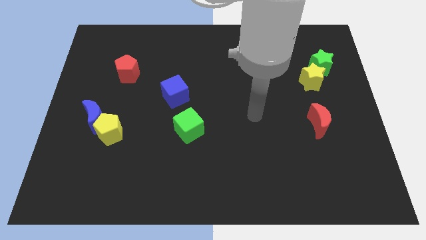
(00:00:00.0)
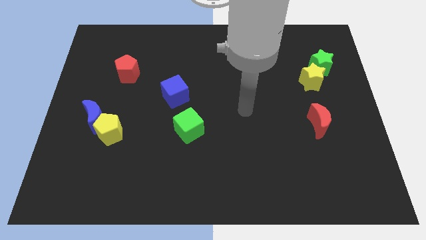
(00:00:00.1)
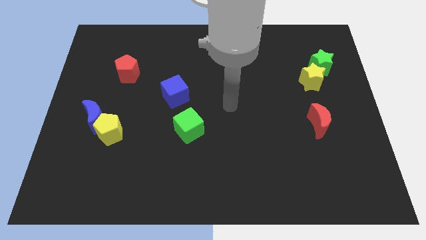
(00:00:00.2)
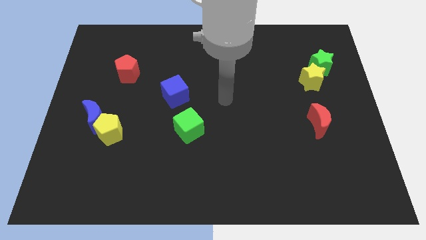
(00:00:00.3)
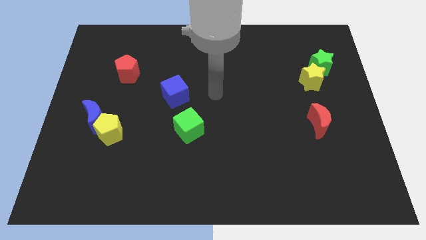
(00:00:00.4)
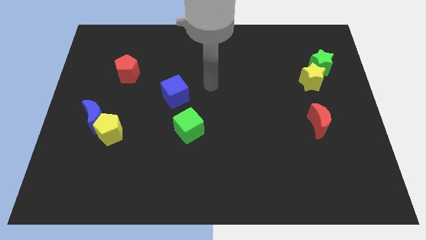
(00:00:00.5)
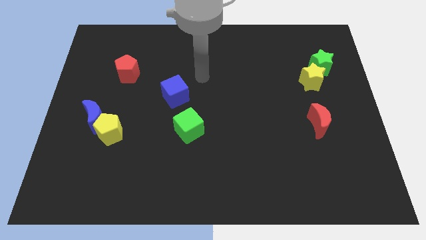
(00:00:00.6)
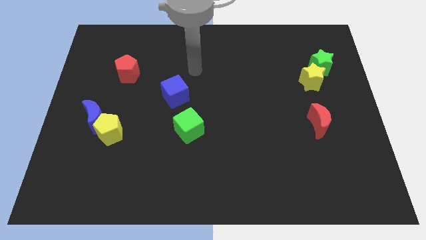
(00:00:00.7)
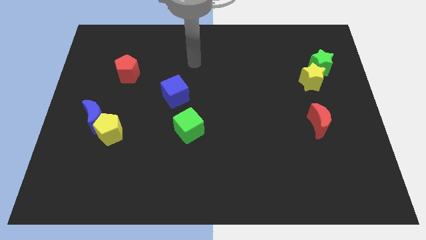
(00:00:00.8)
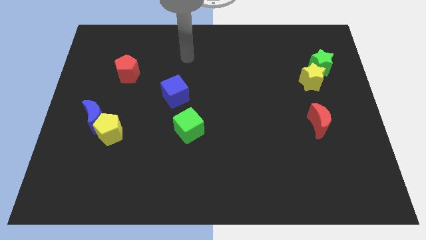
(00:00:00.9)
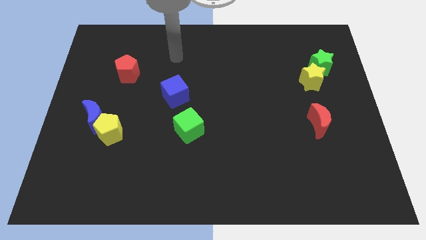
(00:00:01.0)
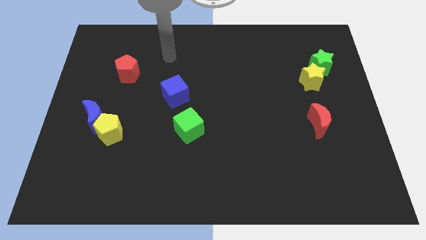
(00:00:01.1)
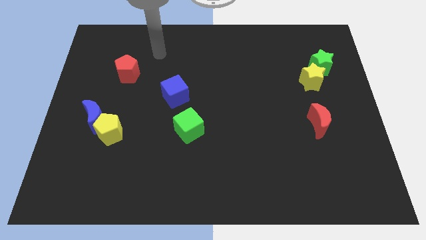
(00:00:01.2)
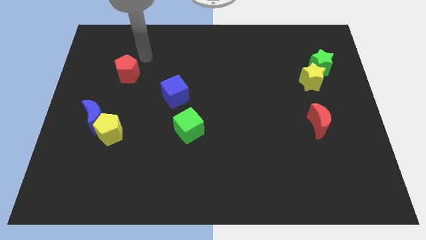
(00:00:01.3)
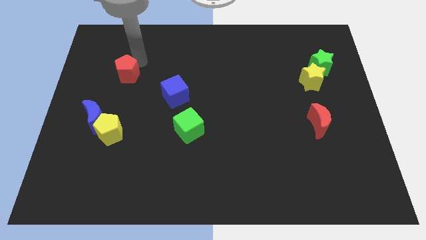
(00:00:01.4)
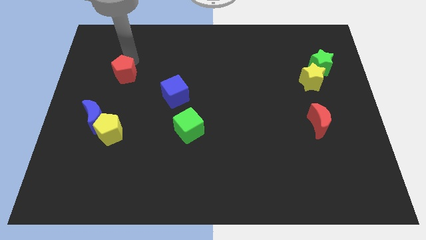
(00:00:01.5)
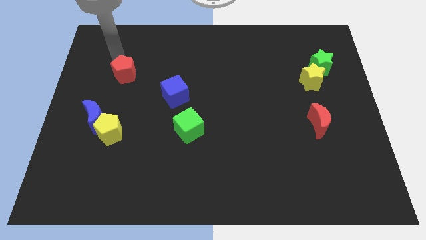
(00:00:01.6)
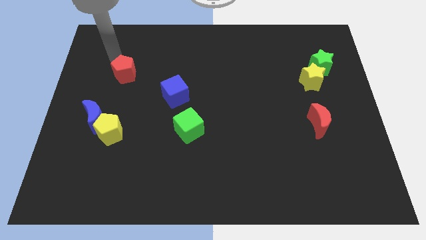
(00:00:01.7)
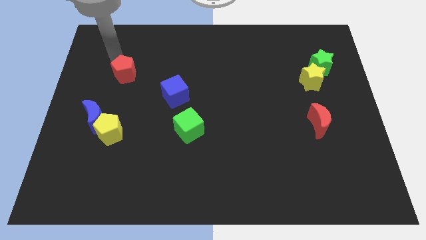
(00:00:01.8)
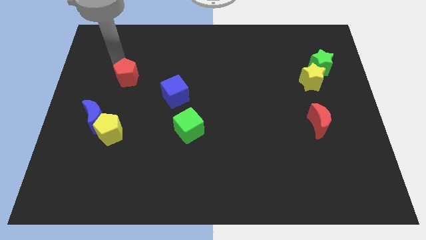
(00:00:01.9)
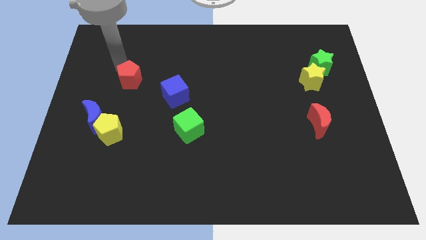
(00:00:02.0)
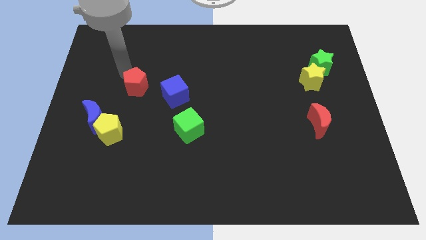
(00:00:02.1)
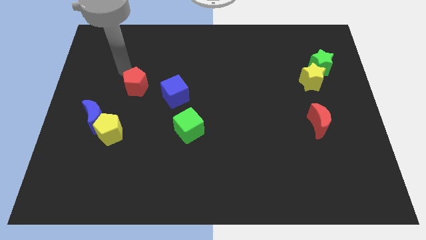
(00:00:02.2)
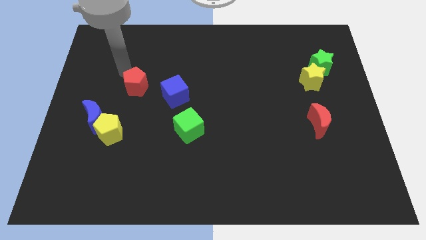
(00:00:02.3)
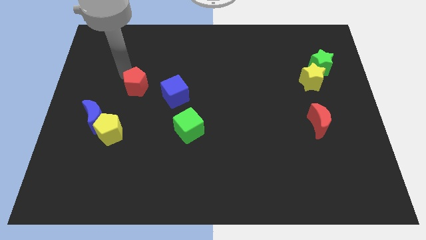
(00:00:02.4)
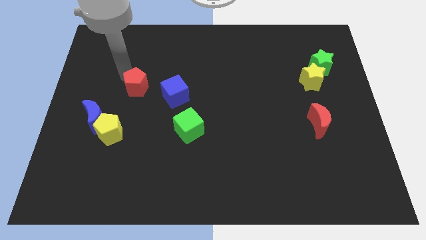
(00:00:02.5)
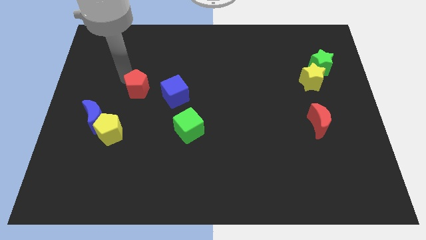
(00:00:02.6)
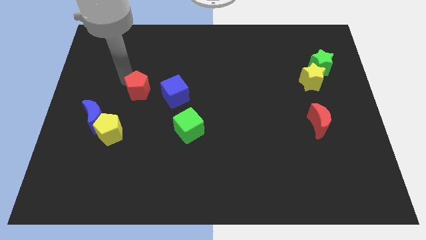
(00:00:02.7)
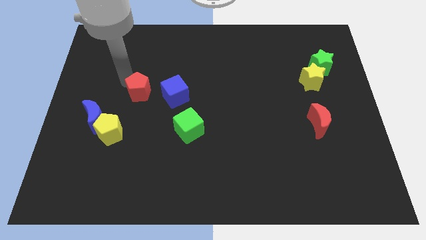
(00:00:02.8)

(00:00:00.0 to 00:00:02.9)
push the red pentagon a little diagonally down and to the right

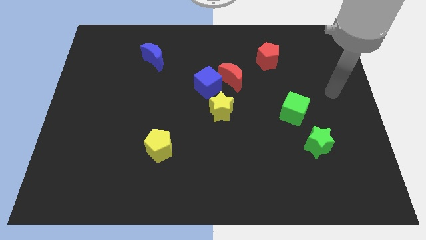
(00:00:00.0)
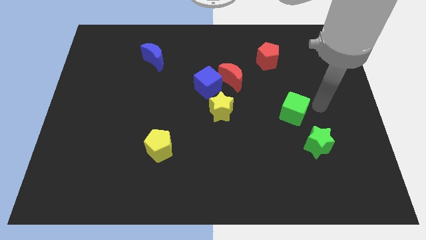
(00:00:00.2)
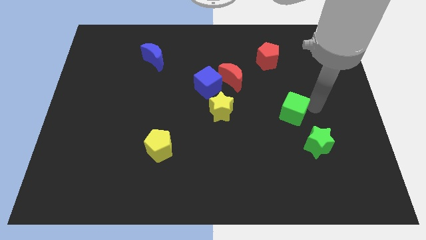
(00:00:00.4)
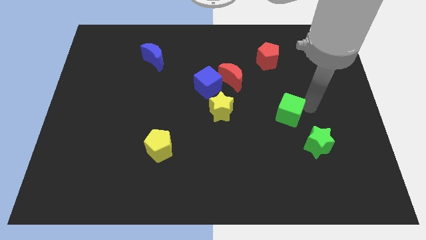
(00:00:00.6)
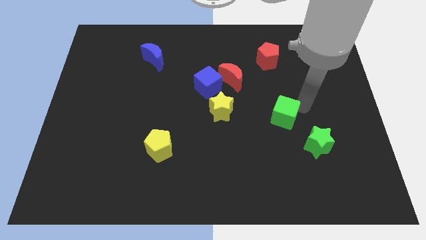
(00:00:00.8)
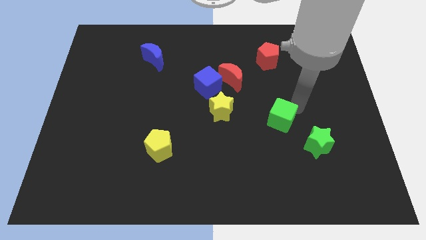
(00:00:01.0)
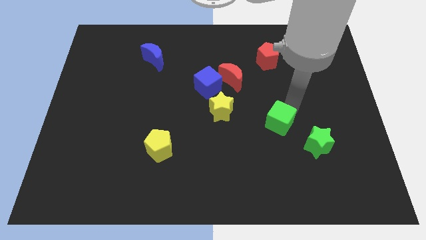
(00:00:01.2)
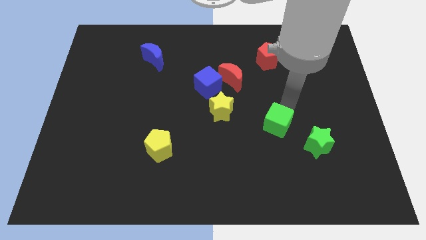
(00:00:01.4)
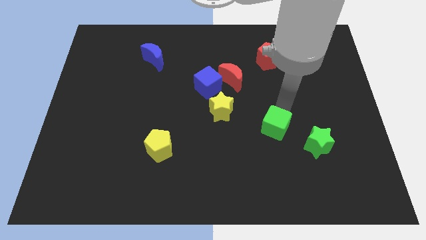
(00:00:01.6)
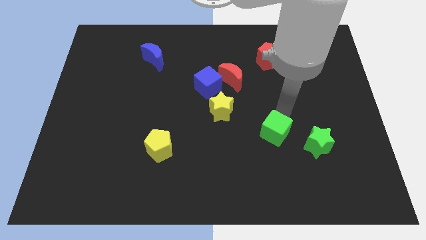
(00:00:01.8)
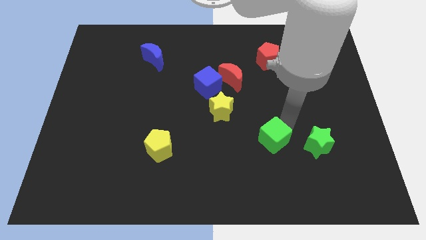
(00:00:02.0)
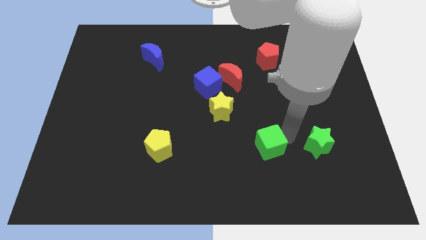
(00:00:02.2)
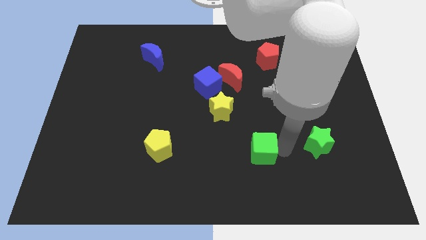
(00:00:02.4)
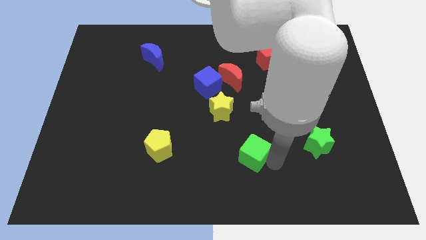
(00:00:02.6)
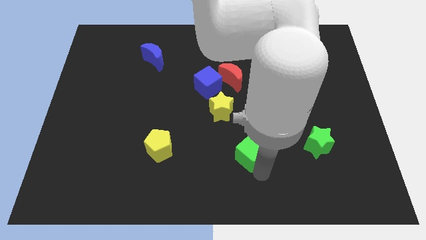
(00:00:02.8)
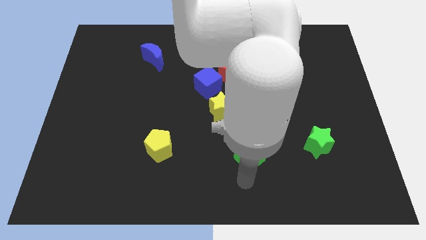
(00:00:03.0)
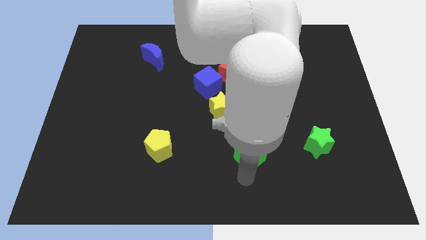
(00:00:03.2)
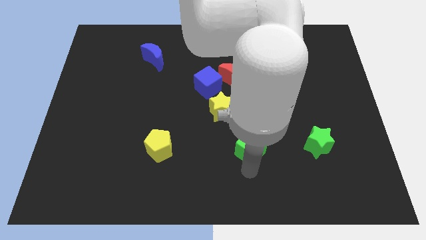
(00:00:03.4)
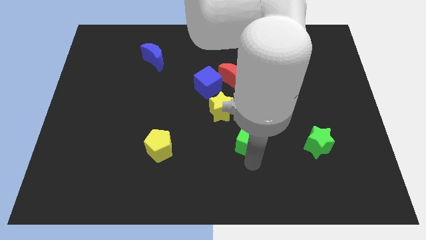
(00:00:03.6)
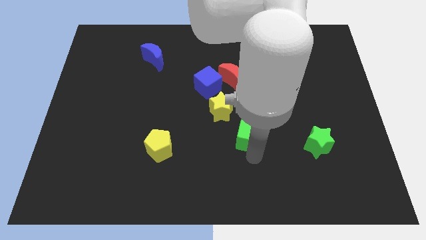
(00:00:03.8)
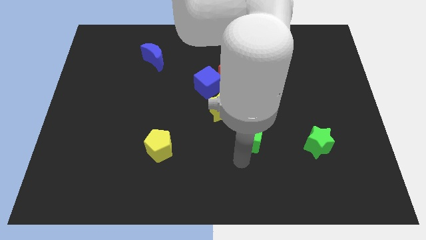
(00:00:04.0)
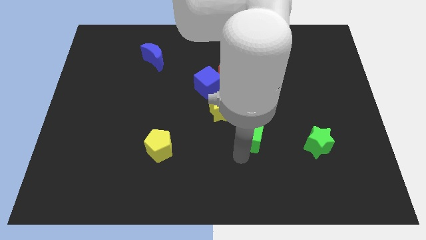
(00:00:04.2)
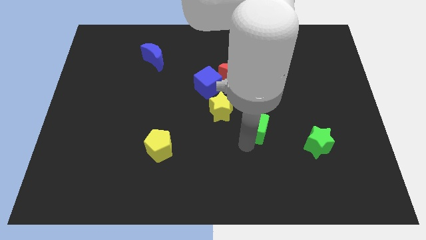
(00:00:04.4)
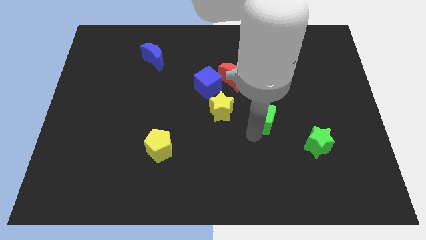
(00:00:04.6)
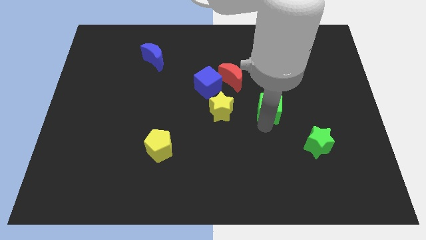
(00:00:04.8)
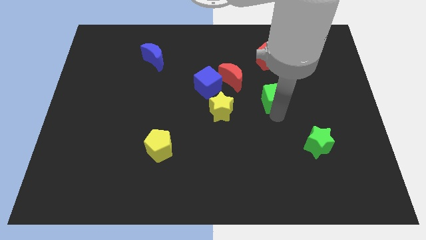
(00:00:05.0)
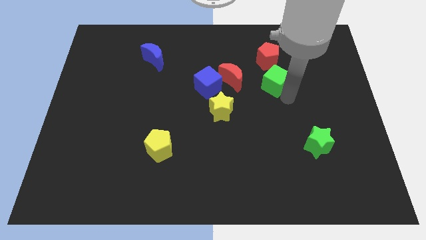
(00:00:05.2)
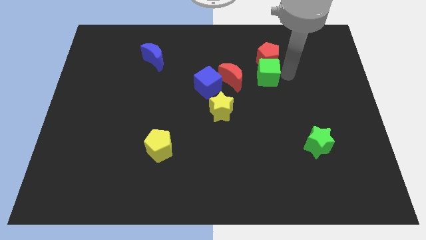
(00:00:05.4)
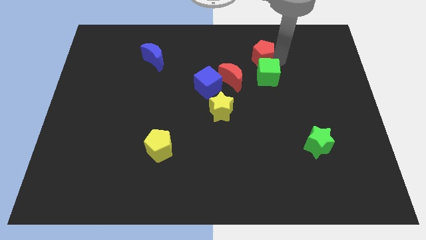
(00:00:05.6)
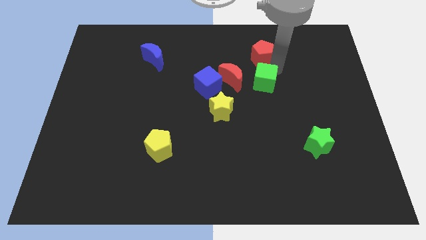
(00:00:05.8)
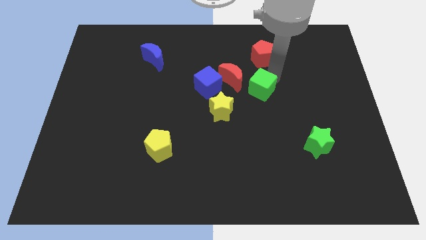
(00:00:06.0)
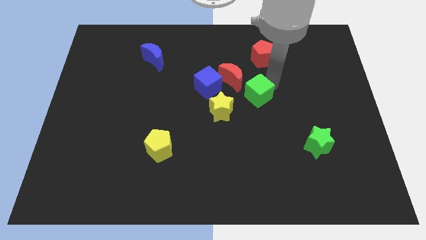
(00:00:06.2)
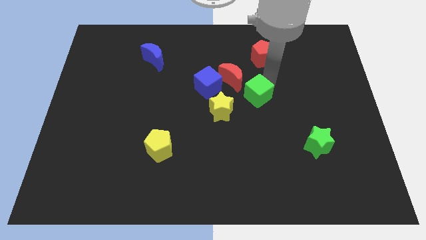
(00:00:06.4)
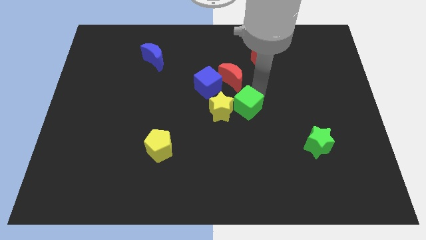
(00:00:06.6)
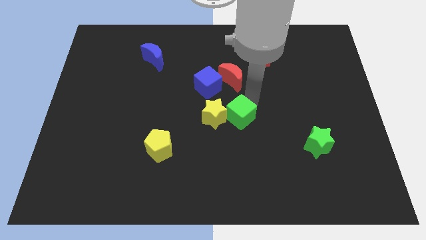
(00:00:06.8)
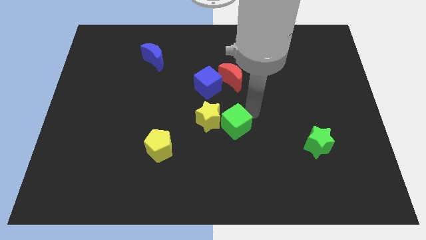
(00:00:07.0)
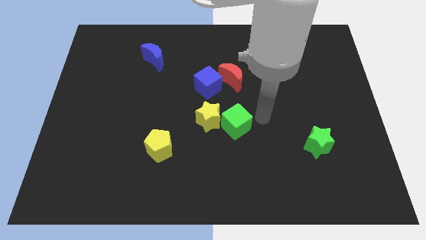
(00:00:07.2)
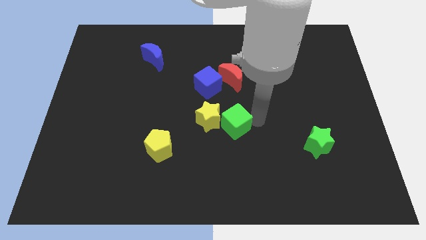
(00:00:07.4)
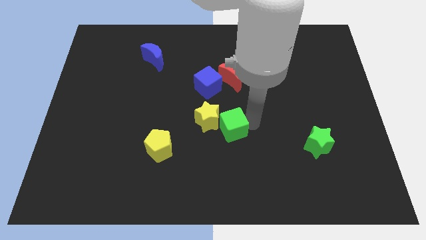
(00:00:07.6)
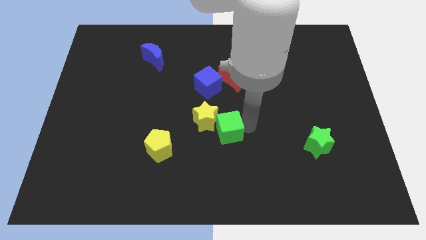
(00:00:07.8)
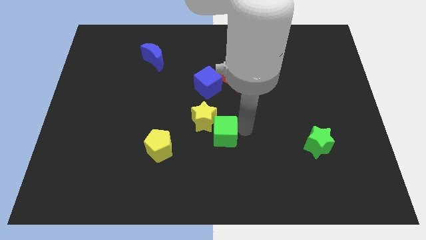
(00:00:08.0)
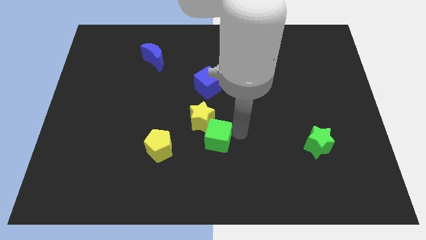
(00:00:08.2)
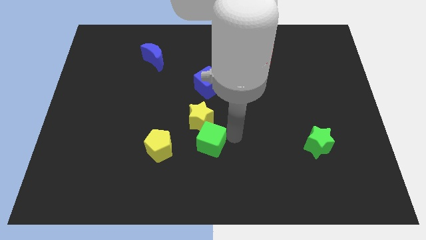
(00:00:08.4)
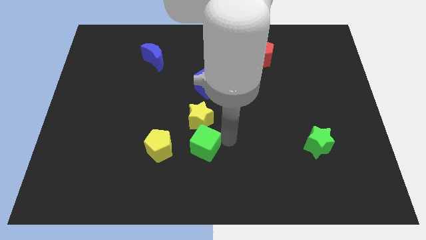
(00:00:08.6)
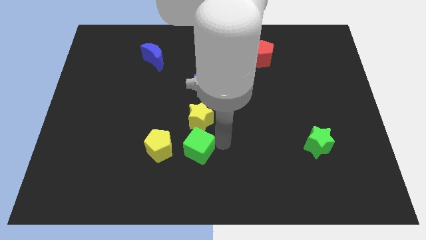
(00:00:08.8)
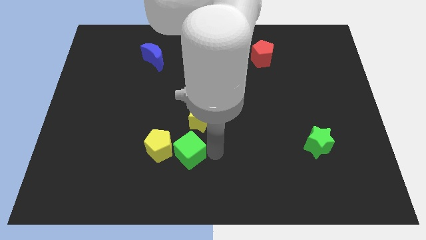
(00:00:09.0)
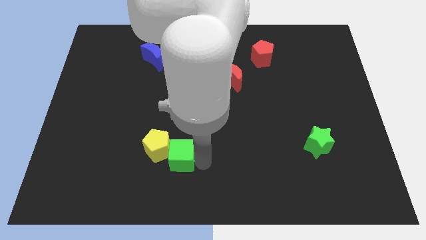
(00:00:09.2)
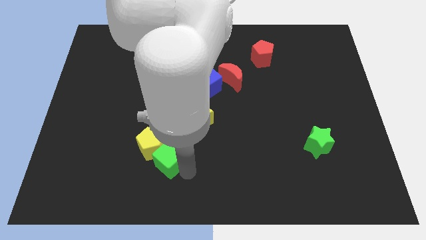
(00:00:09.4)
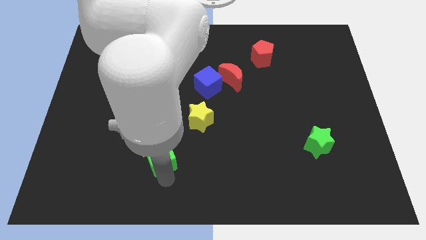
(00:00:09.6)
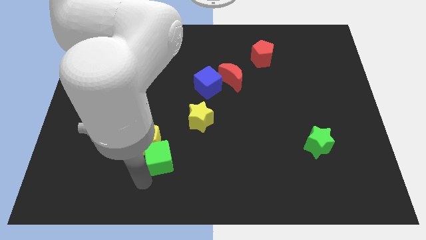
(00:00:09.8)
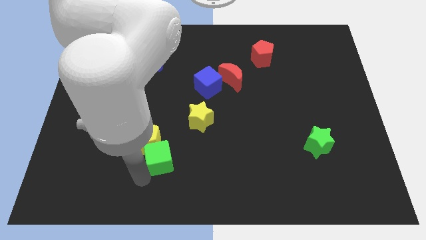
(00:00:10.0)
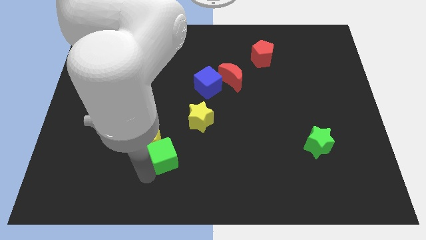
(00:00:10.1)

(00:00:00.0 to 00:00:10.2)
slide the green cube to the left
